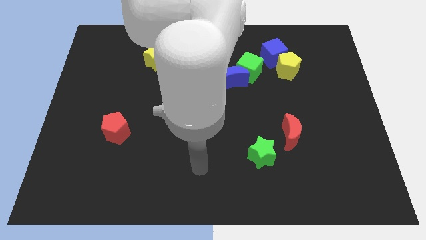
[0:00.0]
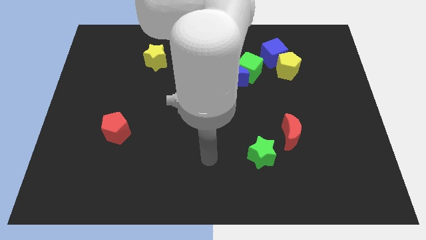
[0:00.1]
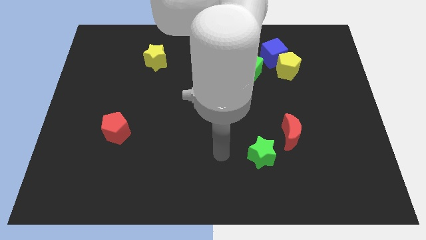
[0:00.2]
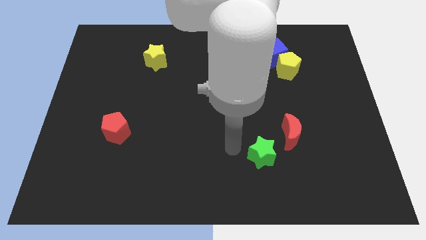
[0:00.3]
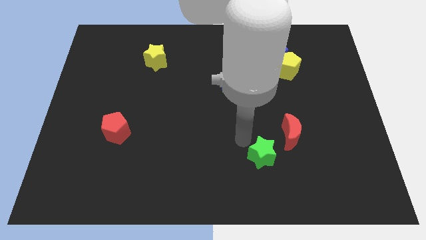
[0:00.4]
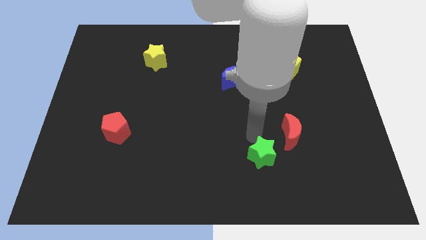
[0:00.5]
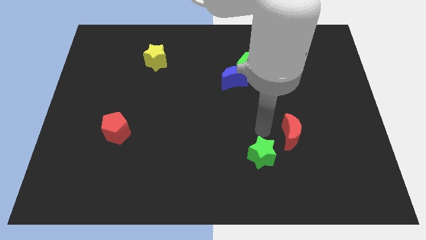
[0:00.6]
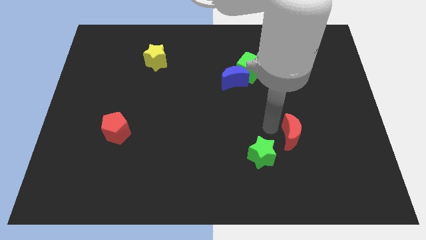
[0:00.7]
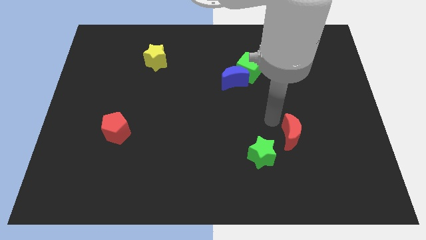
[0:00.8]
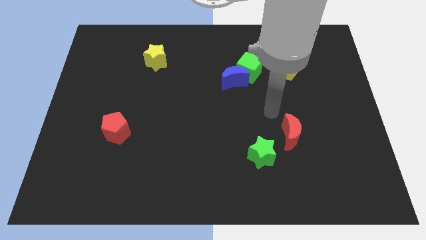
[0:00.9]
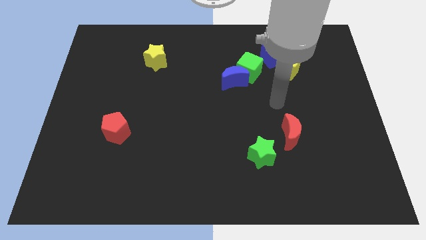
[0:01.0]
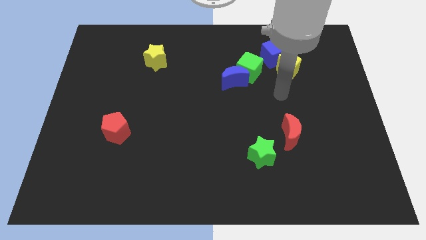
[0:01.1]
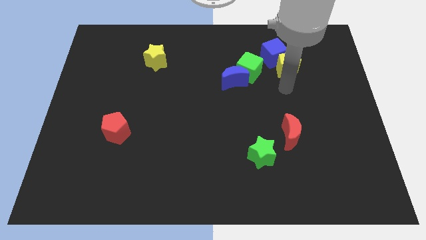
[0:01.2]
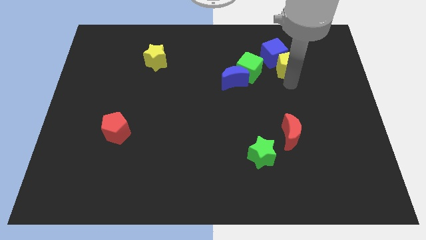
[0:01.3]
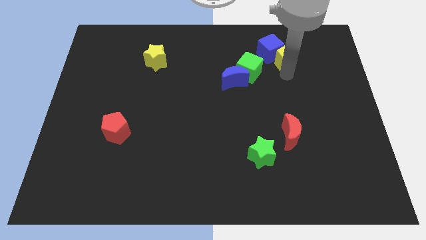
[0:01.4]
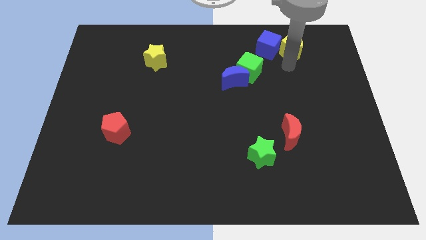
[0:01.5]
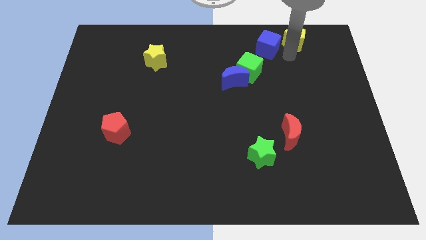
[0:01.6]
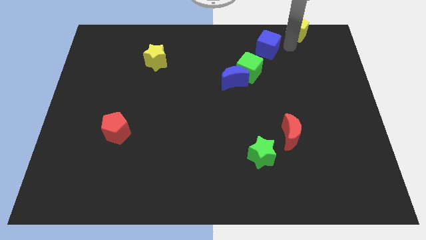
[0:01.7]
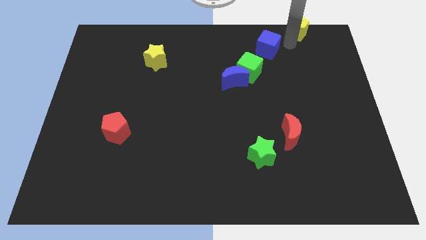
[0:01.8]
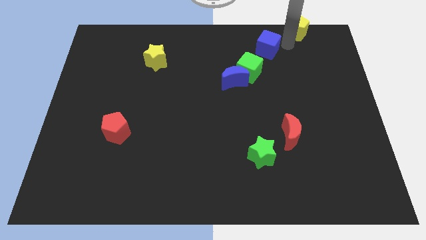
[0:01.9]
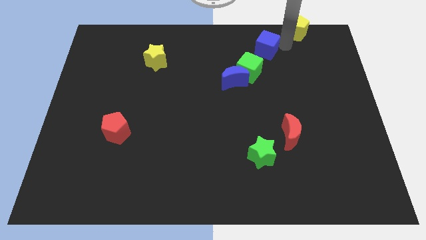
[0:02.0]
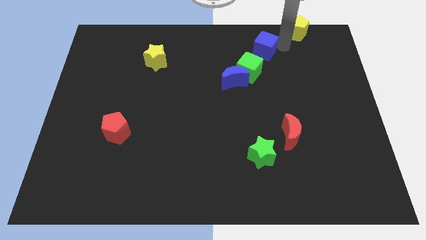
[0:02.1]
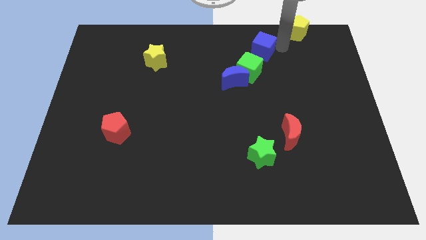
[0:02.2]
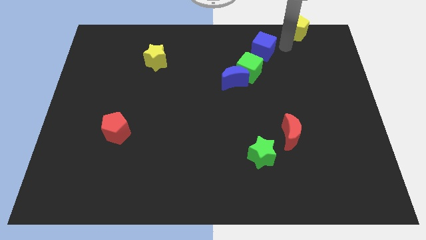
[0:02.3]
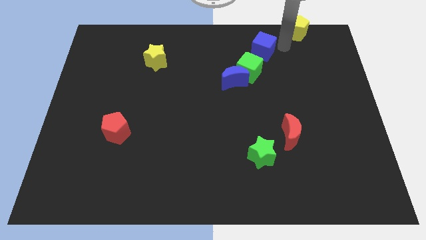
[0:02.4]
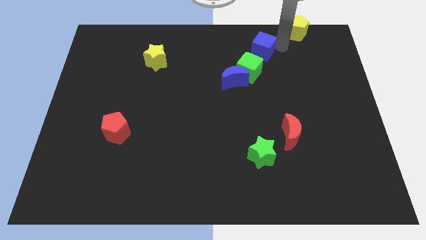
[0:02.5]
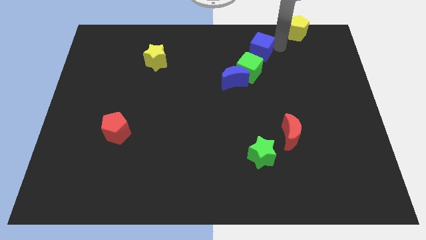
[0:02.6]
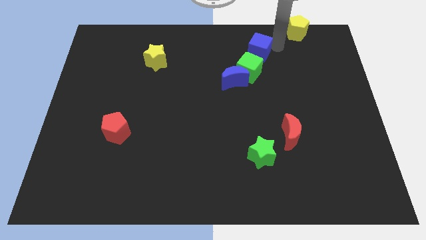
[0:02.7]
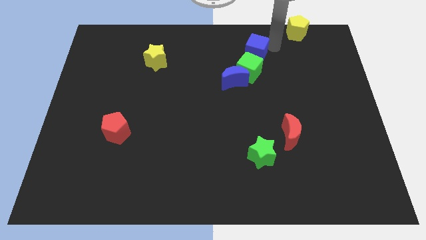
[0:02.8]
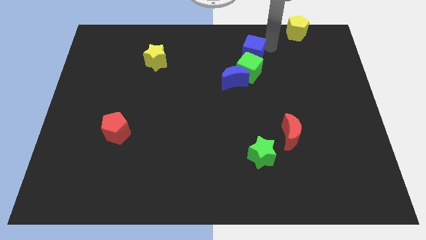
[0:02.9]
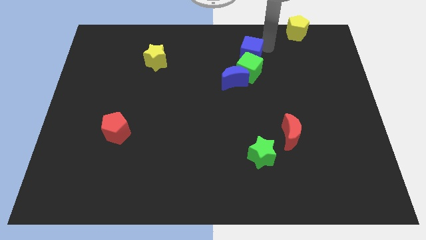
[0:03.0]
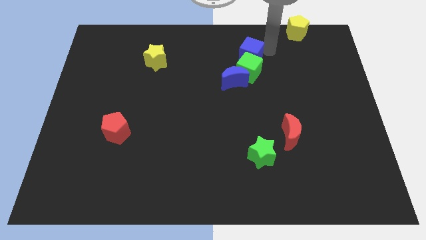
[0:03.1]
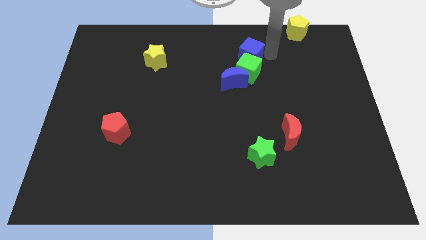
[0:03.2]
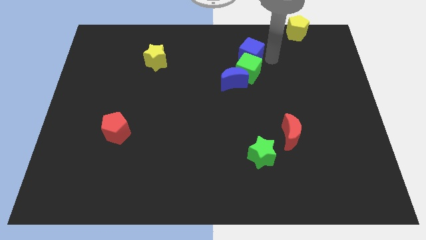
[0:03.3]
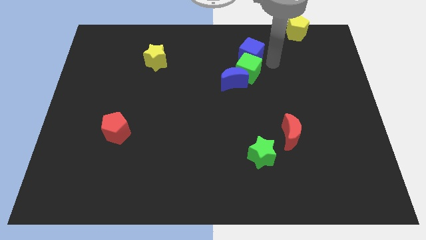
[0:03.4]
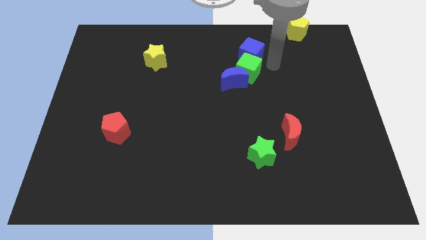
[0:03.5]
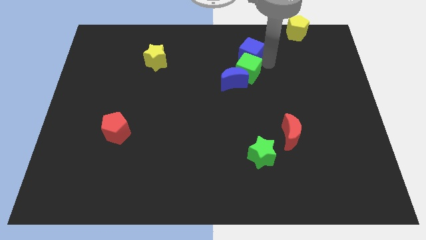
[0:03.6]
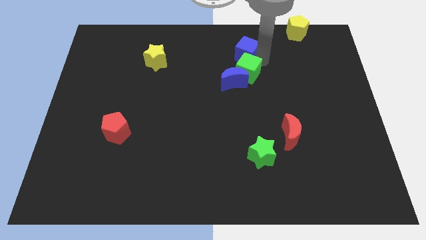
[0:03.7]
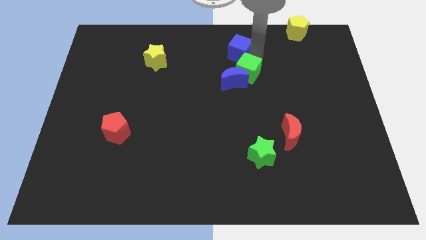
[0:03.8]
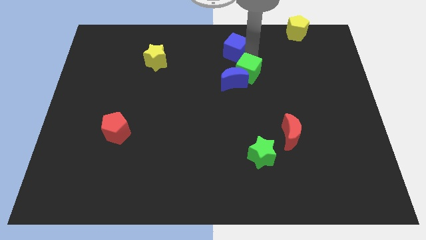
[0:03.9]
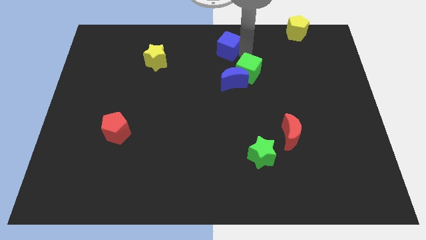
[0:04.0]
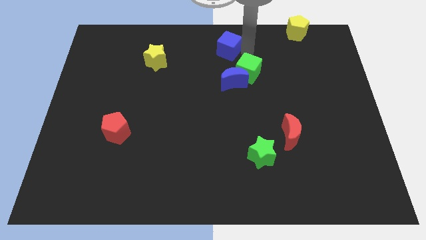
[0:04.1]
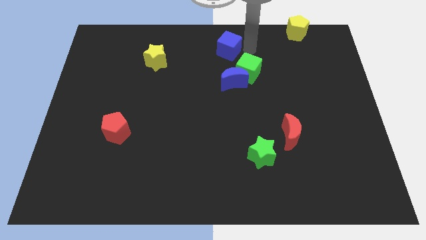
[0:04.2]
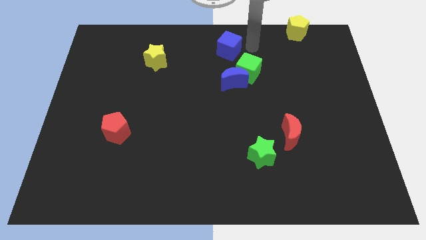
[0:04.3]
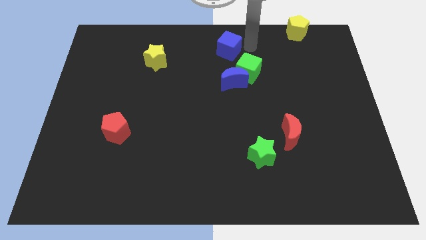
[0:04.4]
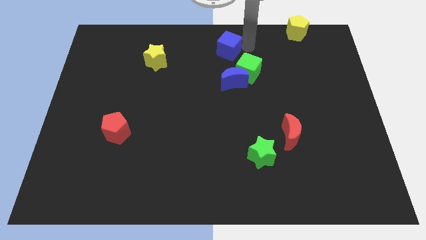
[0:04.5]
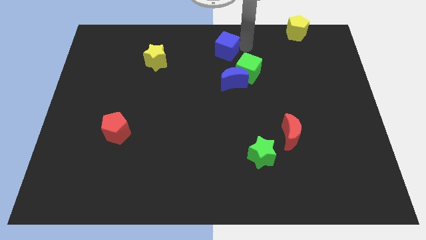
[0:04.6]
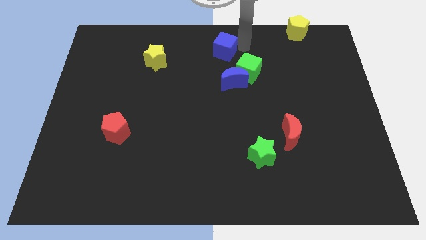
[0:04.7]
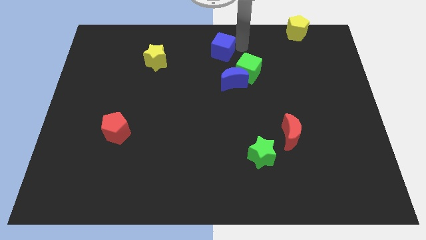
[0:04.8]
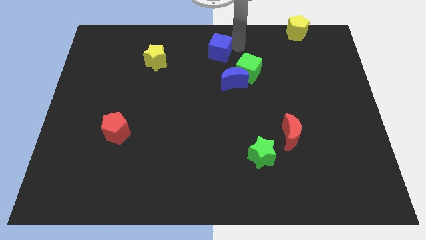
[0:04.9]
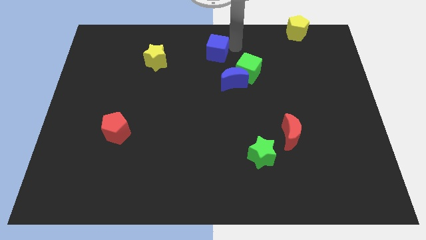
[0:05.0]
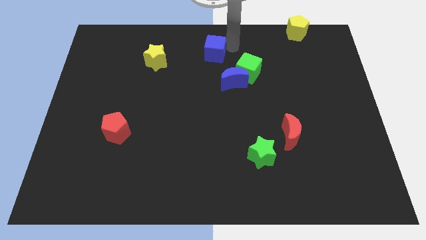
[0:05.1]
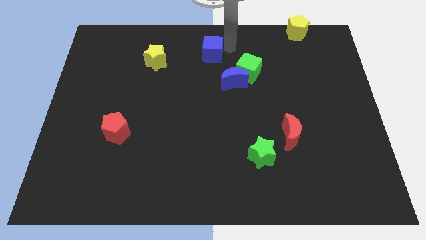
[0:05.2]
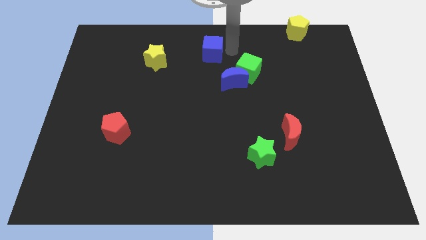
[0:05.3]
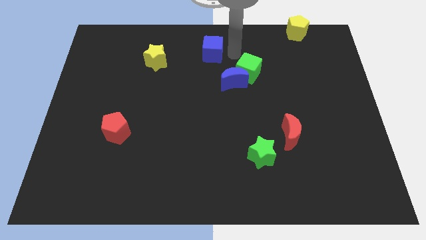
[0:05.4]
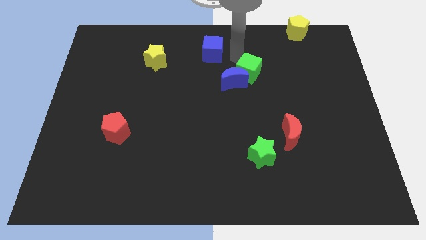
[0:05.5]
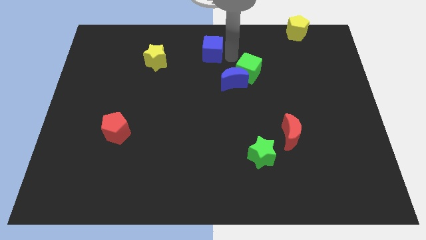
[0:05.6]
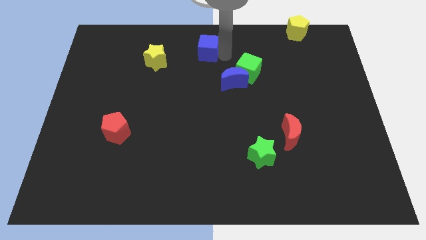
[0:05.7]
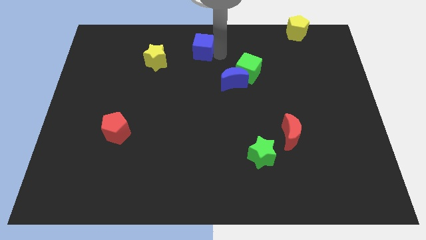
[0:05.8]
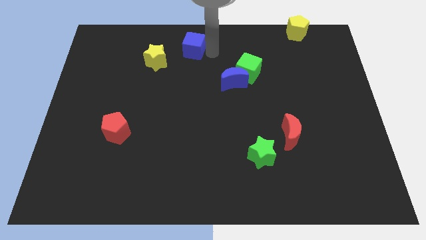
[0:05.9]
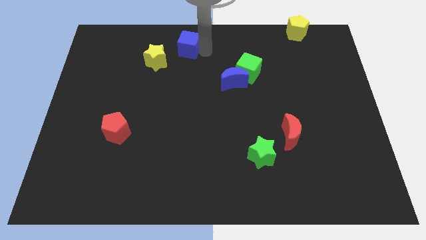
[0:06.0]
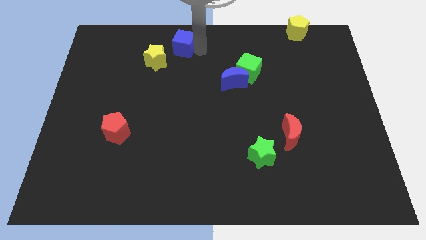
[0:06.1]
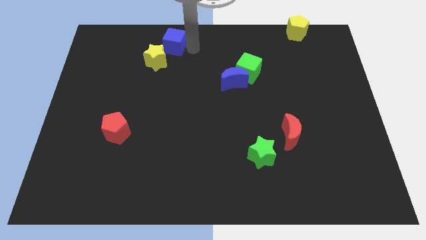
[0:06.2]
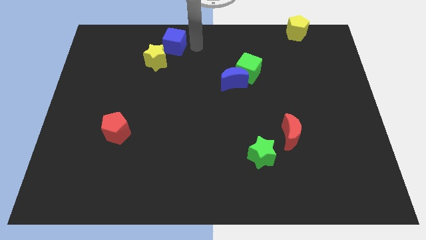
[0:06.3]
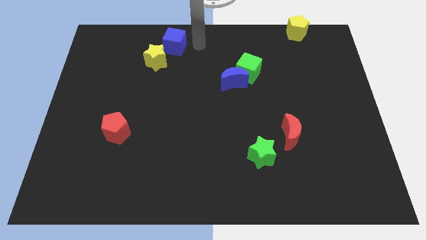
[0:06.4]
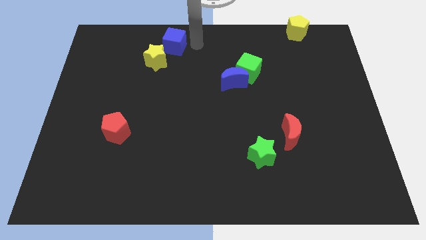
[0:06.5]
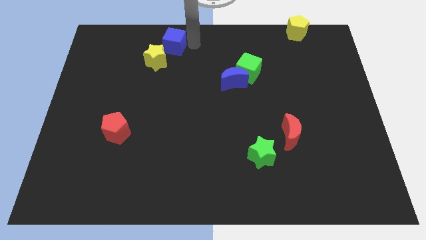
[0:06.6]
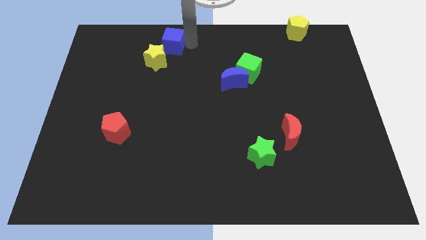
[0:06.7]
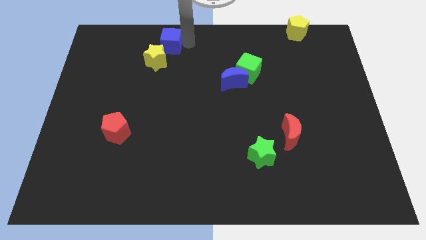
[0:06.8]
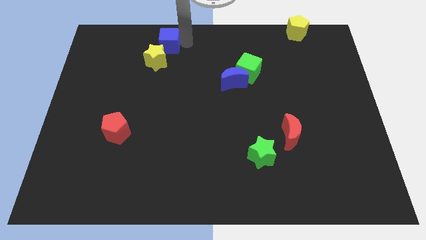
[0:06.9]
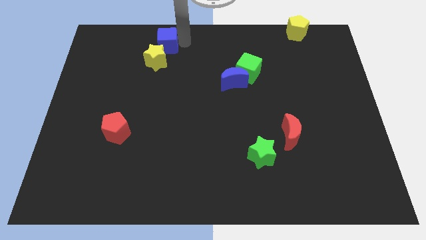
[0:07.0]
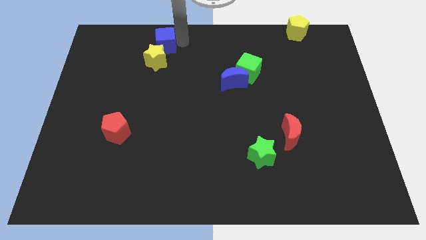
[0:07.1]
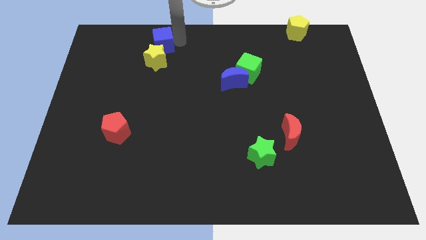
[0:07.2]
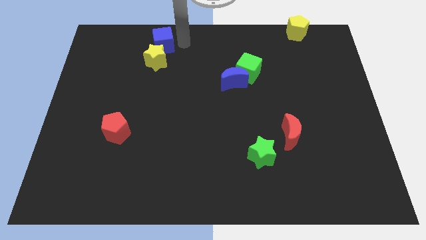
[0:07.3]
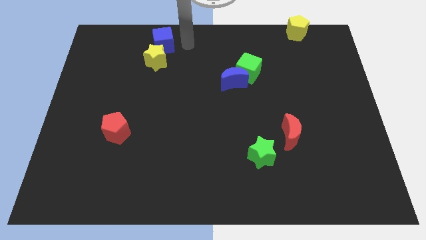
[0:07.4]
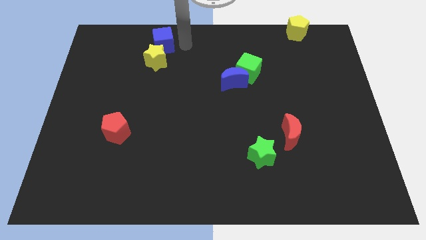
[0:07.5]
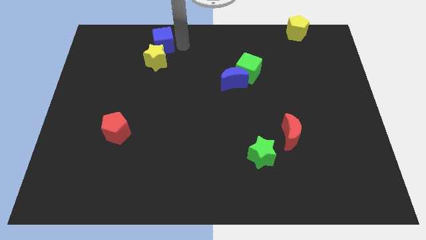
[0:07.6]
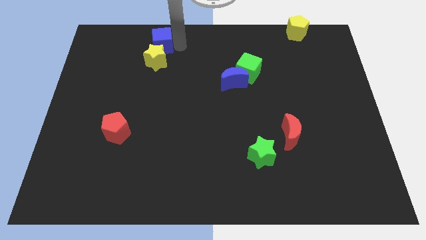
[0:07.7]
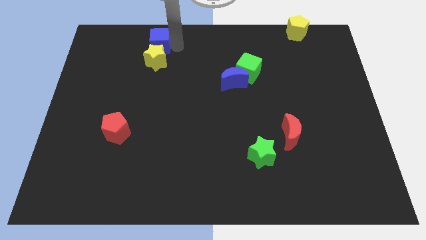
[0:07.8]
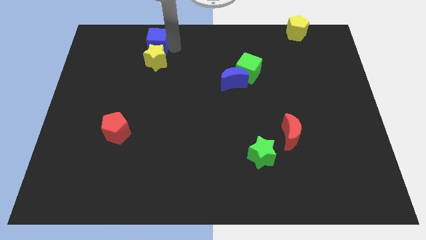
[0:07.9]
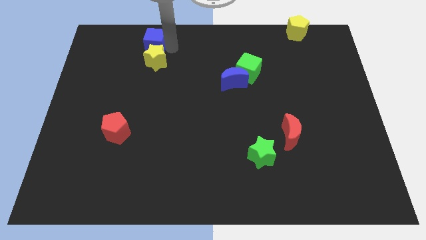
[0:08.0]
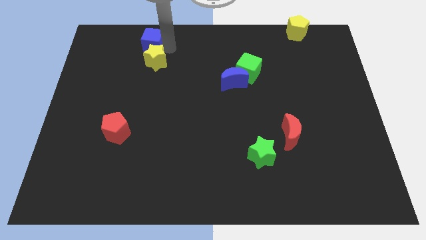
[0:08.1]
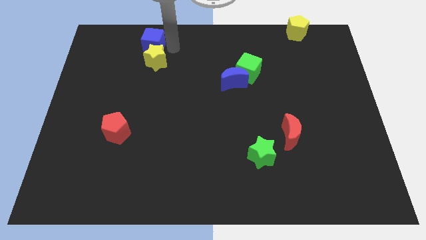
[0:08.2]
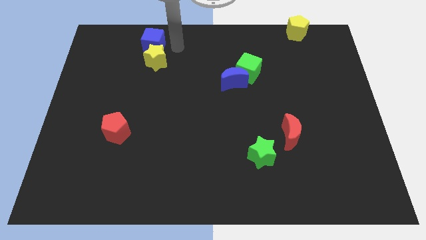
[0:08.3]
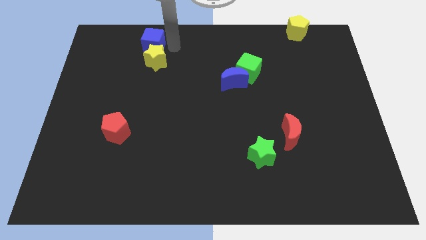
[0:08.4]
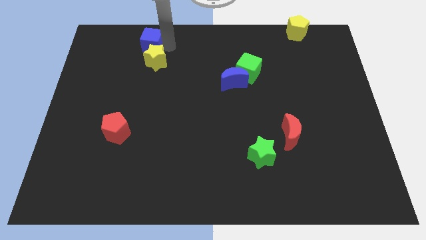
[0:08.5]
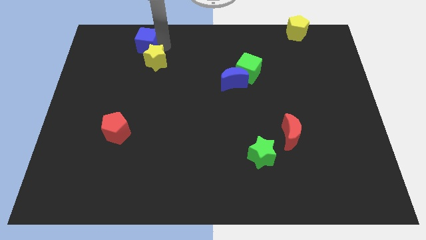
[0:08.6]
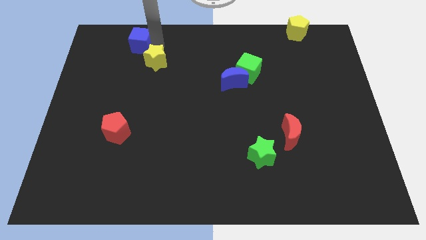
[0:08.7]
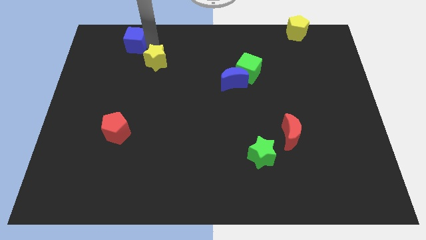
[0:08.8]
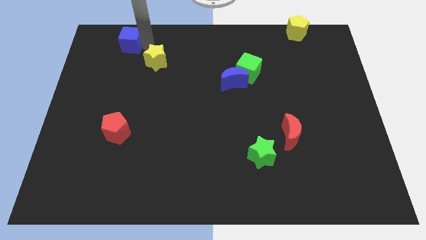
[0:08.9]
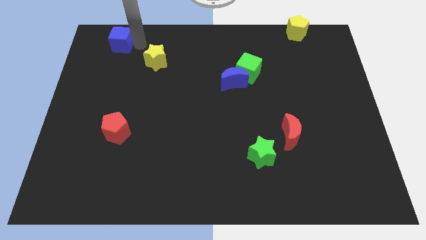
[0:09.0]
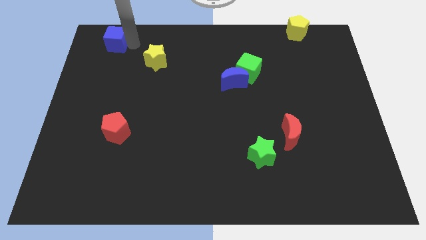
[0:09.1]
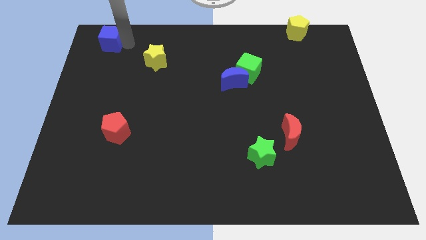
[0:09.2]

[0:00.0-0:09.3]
slide the blue cube to the top left of the board
